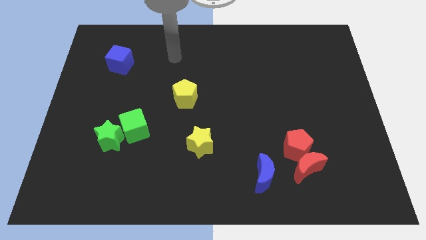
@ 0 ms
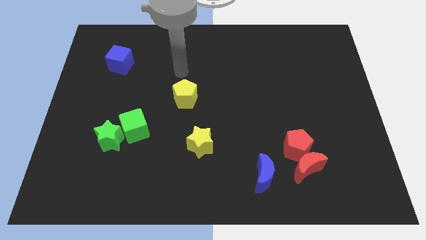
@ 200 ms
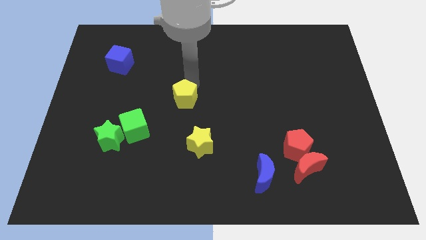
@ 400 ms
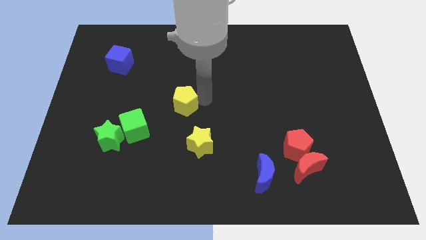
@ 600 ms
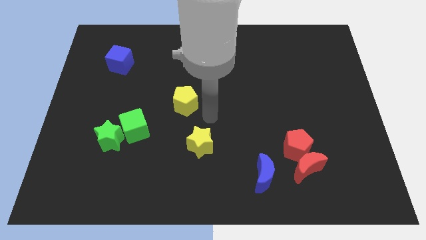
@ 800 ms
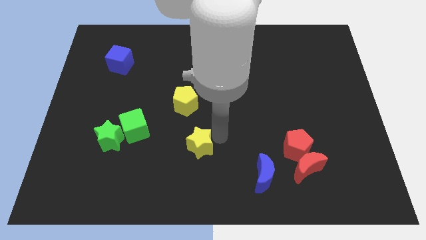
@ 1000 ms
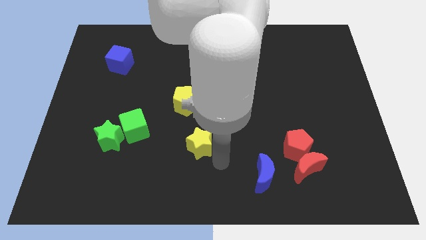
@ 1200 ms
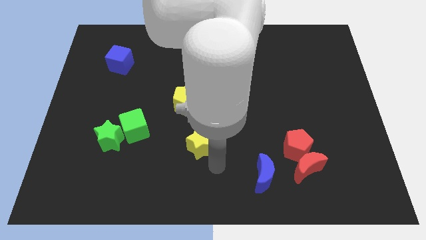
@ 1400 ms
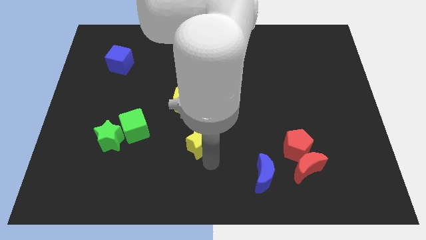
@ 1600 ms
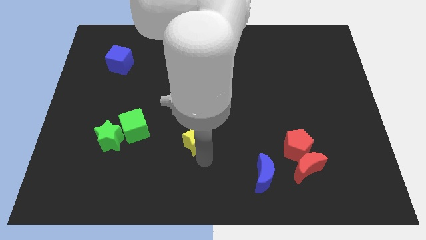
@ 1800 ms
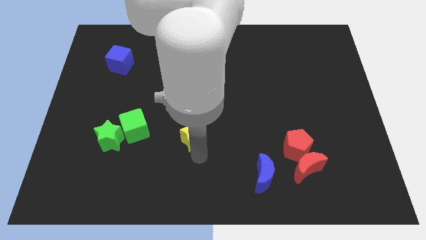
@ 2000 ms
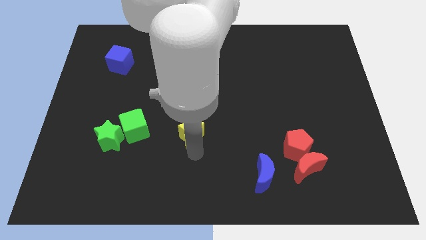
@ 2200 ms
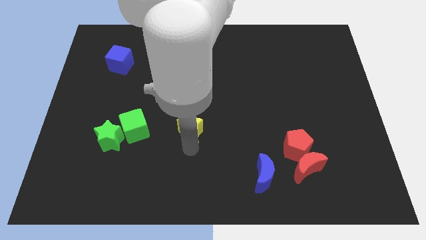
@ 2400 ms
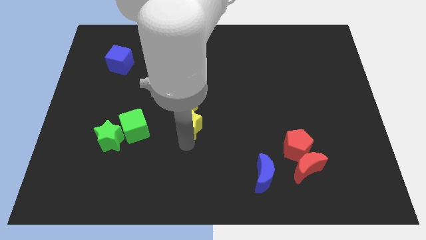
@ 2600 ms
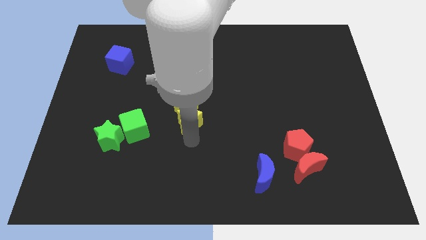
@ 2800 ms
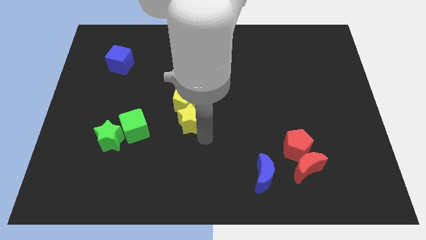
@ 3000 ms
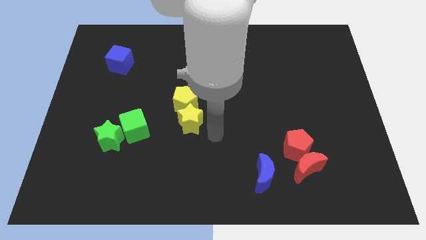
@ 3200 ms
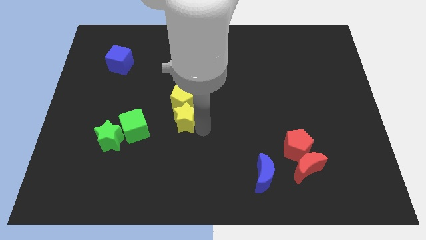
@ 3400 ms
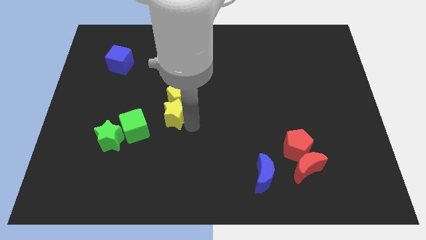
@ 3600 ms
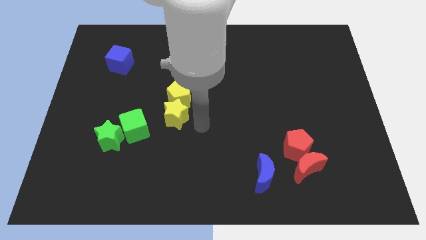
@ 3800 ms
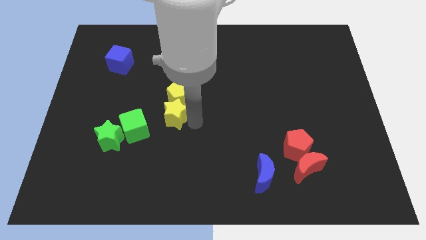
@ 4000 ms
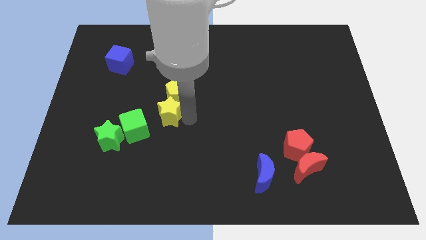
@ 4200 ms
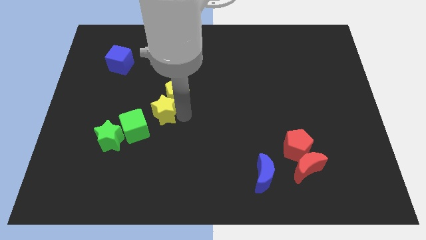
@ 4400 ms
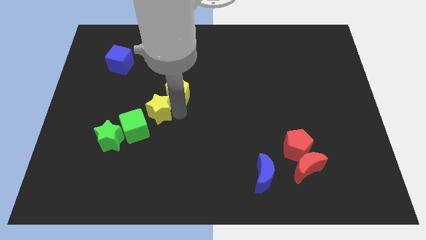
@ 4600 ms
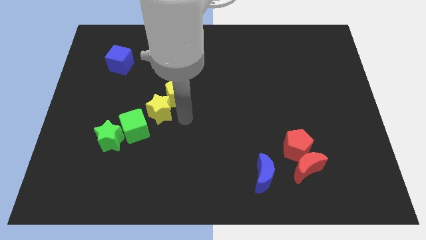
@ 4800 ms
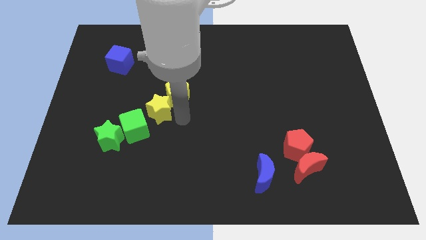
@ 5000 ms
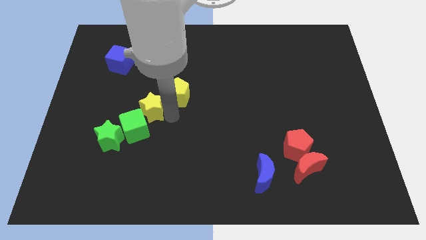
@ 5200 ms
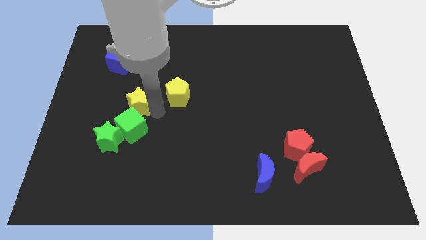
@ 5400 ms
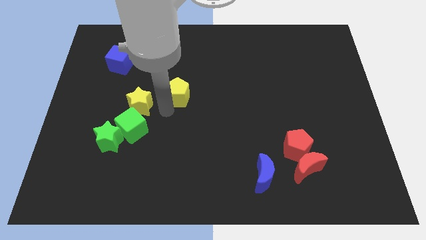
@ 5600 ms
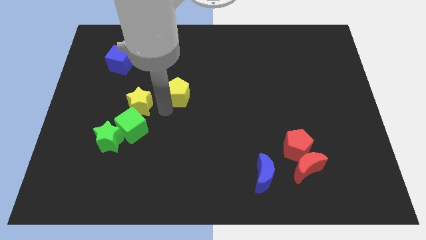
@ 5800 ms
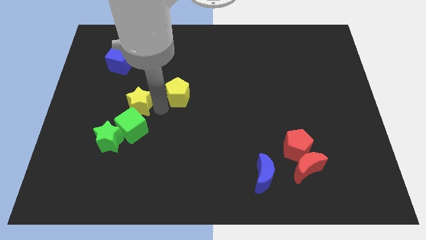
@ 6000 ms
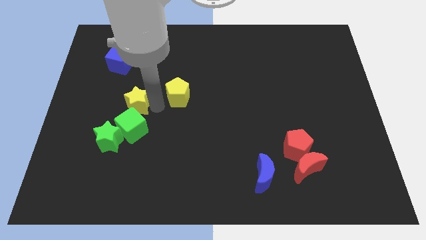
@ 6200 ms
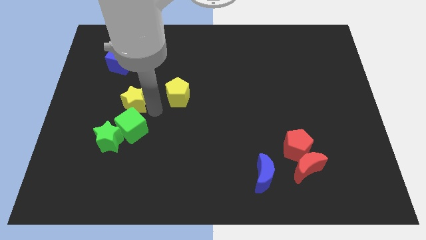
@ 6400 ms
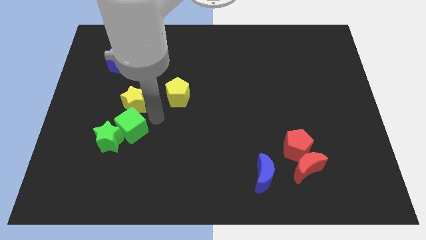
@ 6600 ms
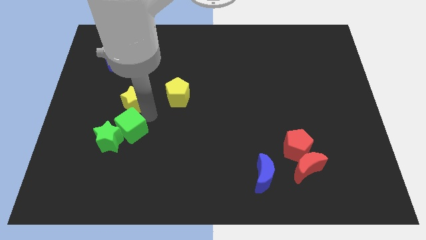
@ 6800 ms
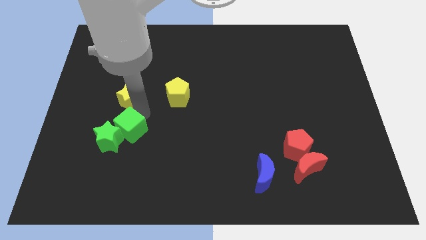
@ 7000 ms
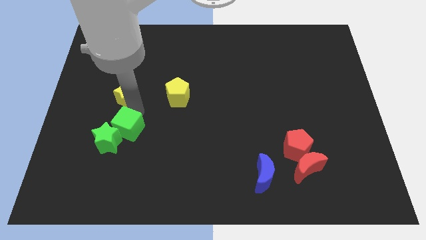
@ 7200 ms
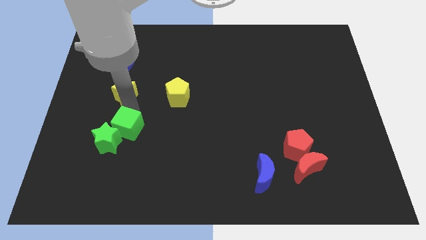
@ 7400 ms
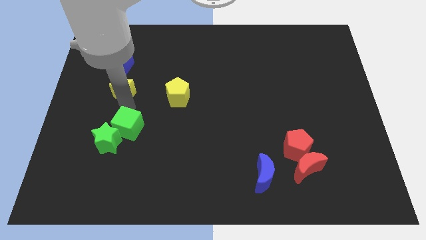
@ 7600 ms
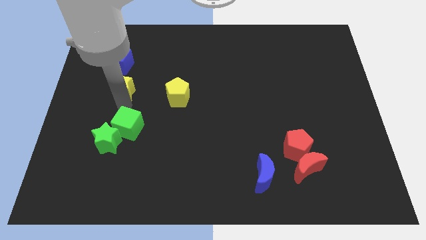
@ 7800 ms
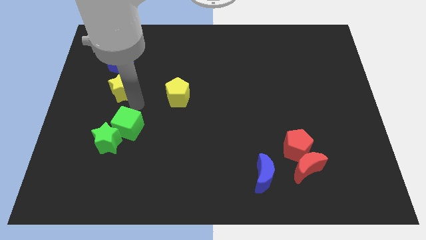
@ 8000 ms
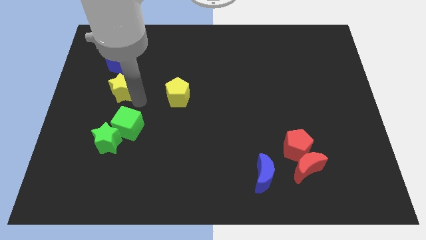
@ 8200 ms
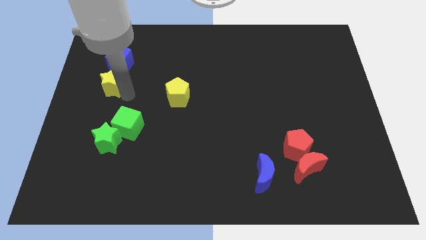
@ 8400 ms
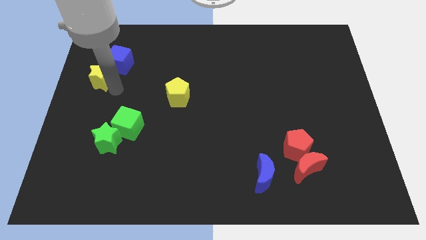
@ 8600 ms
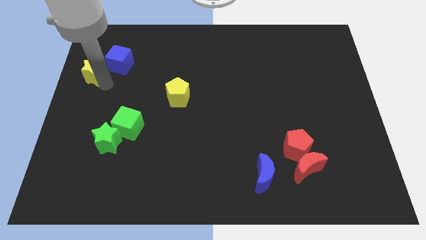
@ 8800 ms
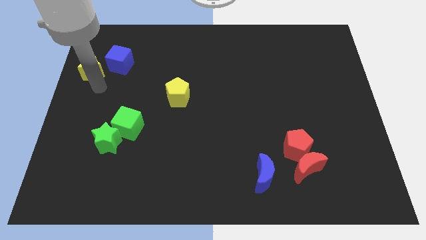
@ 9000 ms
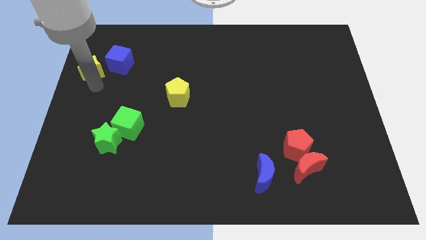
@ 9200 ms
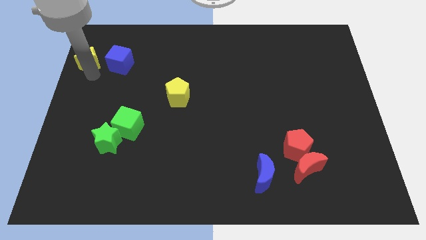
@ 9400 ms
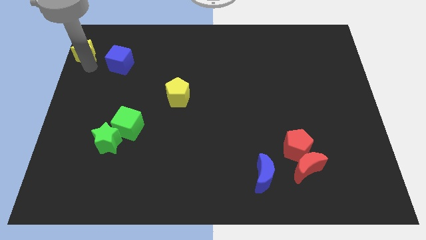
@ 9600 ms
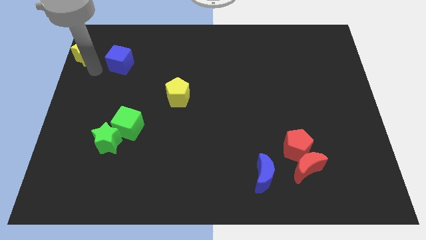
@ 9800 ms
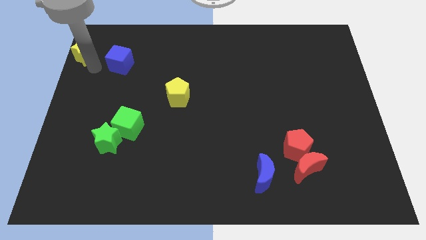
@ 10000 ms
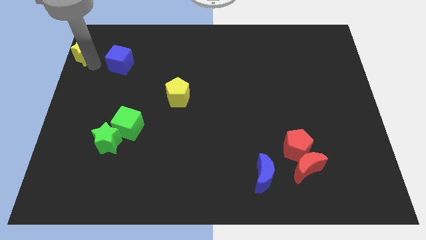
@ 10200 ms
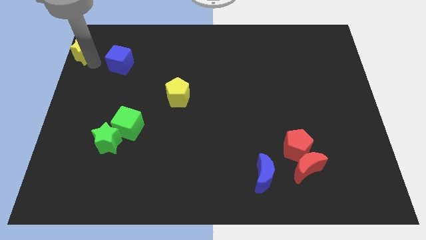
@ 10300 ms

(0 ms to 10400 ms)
slide the yellow star to the top left of the board

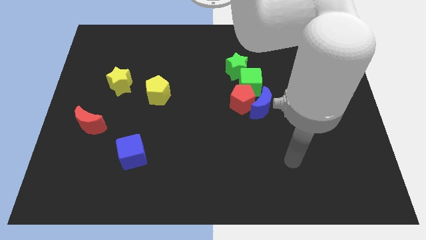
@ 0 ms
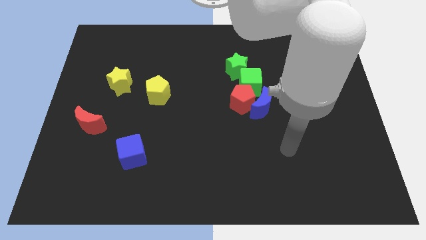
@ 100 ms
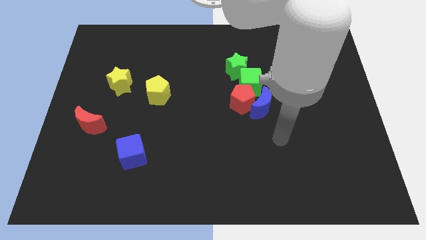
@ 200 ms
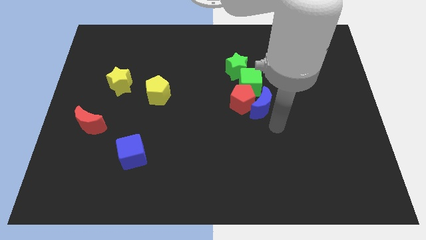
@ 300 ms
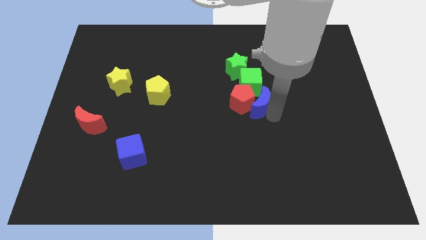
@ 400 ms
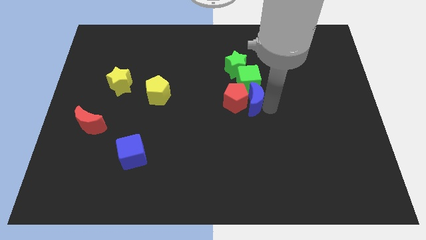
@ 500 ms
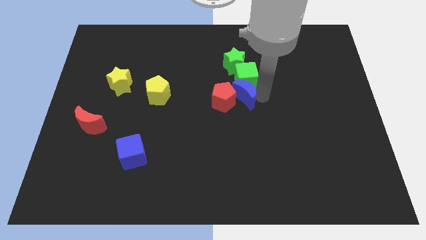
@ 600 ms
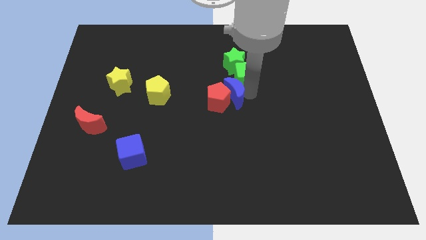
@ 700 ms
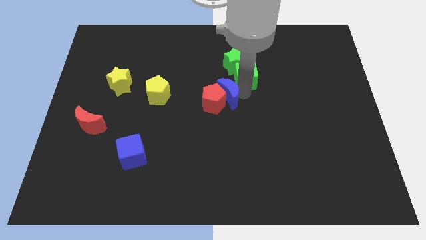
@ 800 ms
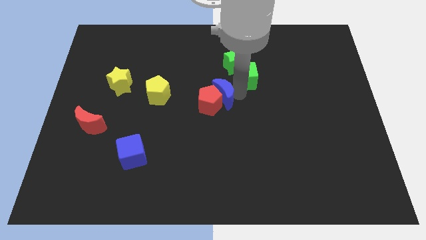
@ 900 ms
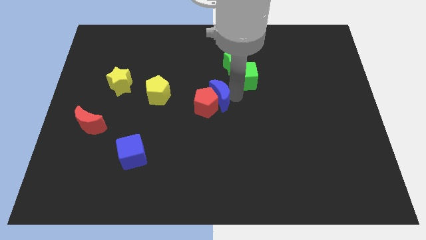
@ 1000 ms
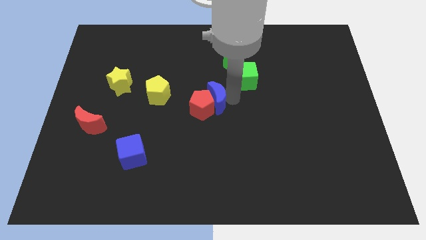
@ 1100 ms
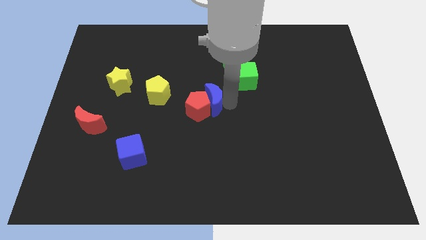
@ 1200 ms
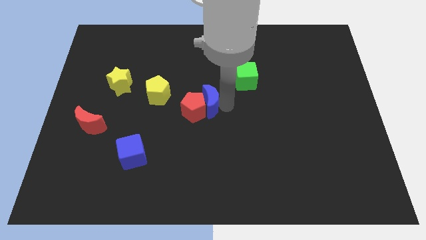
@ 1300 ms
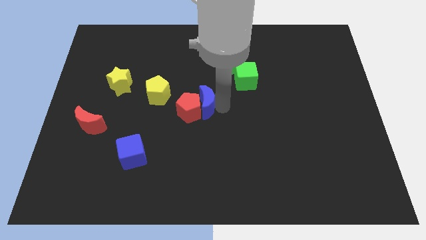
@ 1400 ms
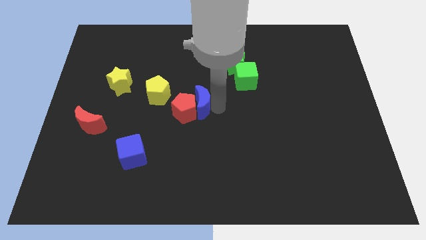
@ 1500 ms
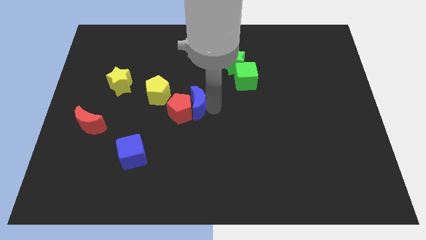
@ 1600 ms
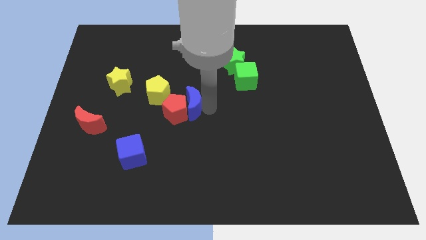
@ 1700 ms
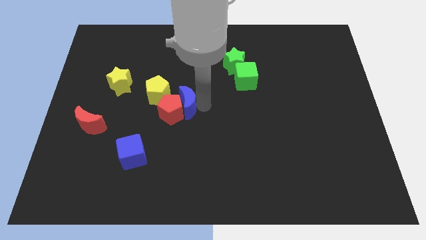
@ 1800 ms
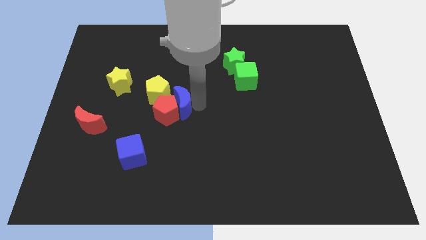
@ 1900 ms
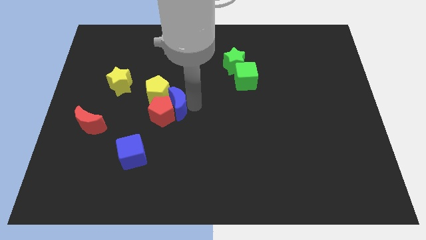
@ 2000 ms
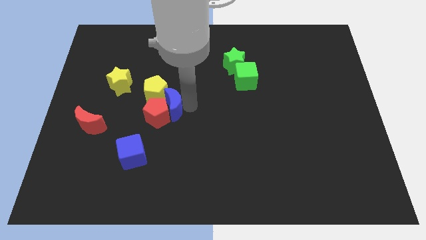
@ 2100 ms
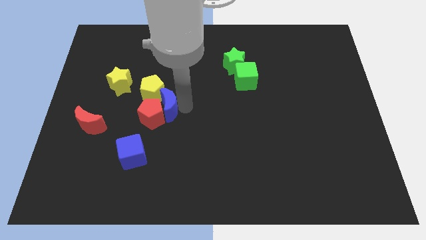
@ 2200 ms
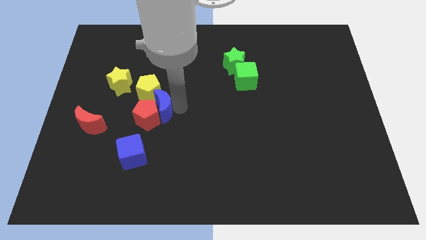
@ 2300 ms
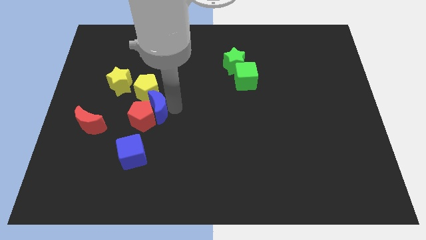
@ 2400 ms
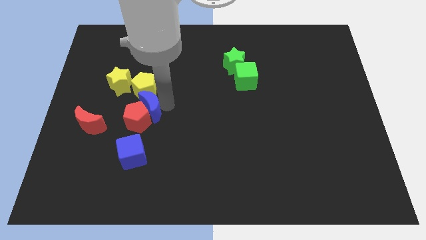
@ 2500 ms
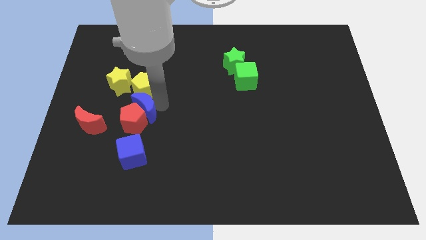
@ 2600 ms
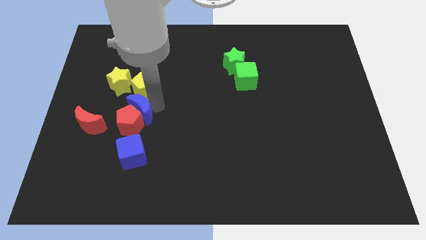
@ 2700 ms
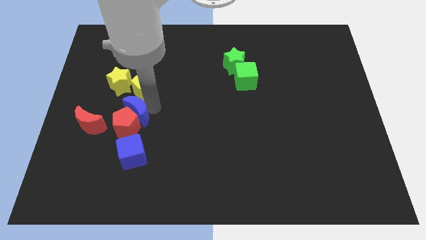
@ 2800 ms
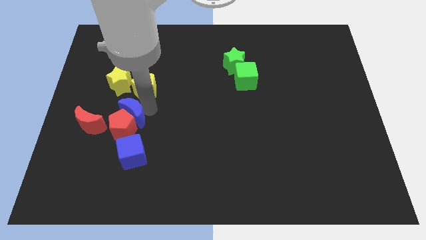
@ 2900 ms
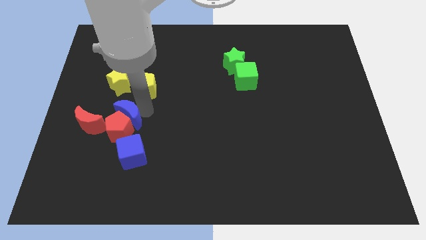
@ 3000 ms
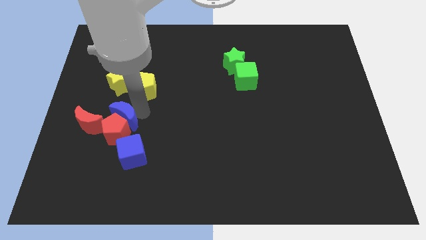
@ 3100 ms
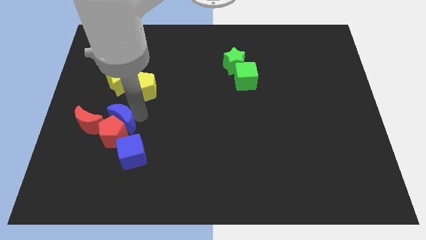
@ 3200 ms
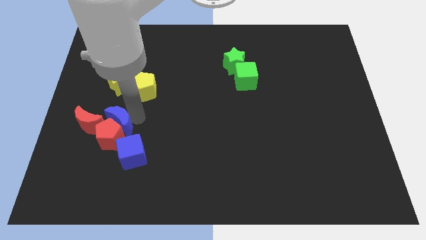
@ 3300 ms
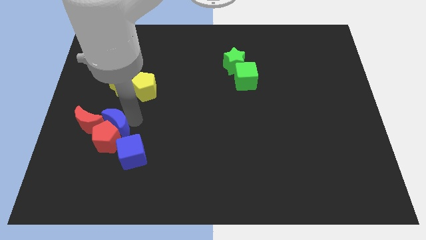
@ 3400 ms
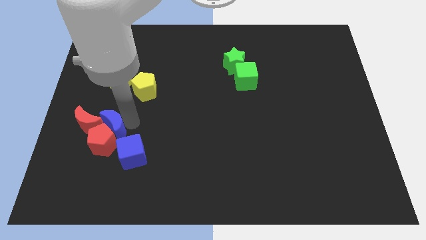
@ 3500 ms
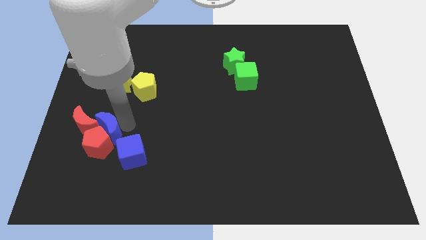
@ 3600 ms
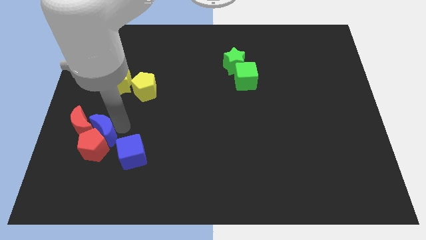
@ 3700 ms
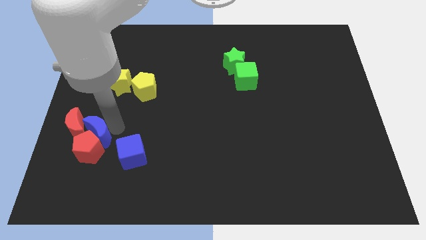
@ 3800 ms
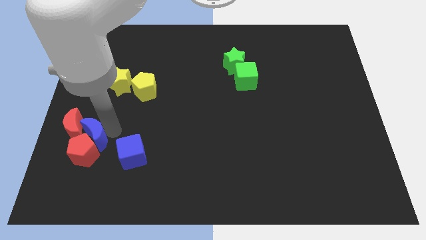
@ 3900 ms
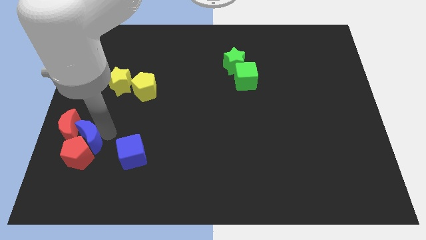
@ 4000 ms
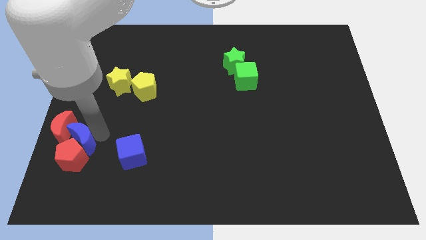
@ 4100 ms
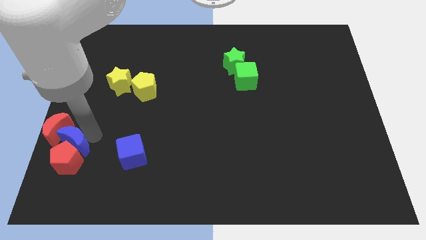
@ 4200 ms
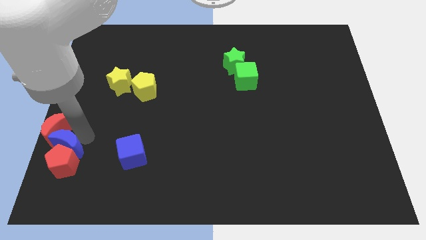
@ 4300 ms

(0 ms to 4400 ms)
slide the red pentagon to the bottom left of the board
